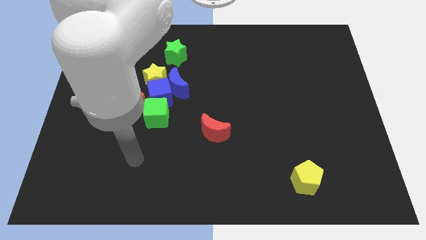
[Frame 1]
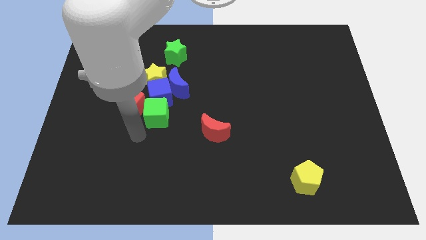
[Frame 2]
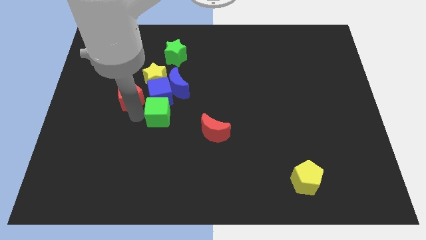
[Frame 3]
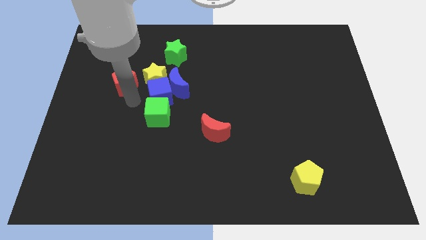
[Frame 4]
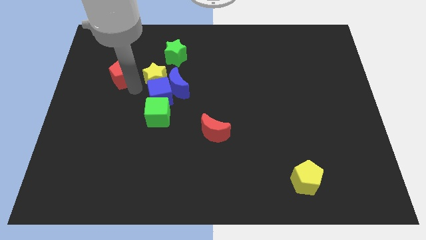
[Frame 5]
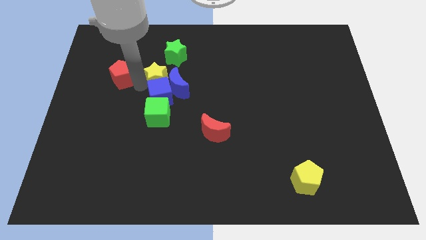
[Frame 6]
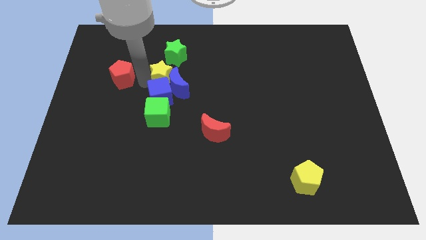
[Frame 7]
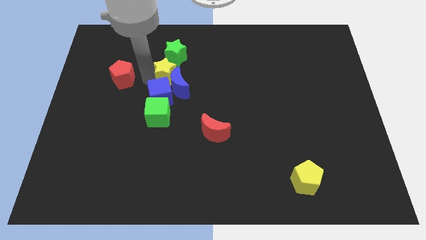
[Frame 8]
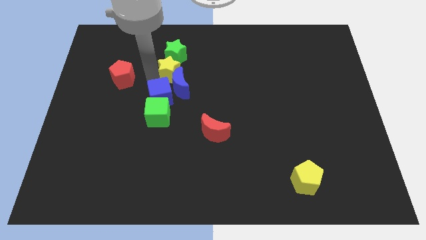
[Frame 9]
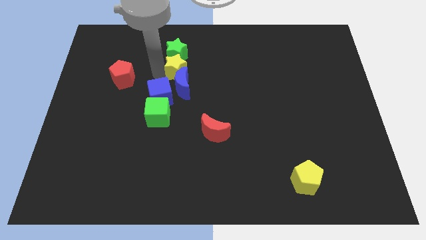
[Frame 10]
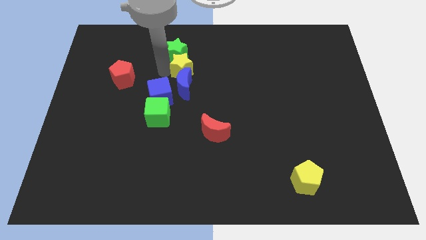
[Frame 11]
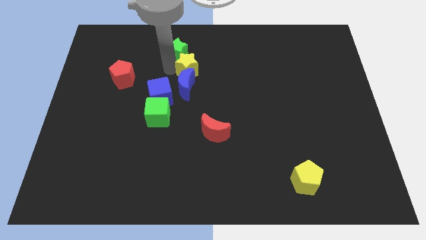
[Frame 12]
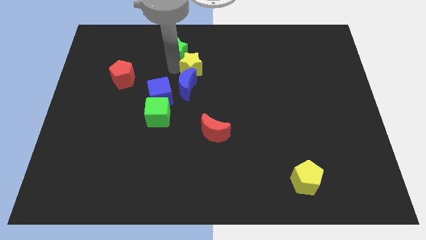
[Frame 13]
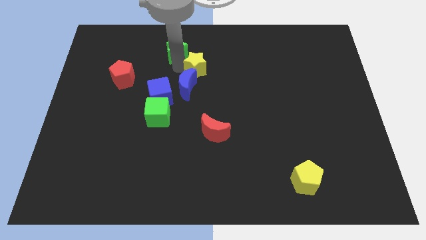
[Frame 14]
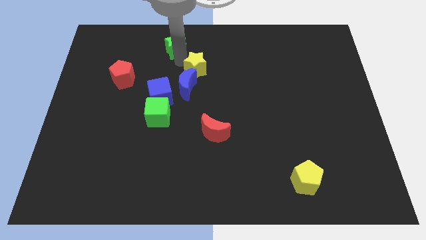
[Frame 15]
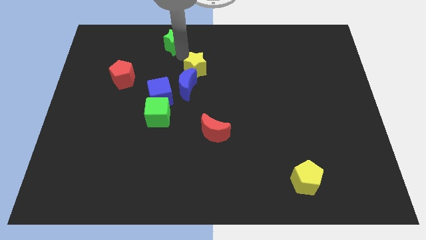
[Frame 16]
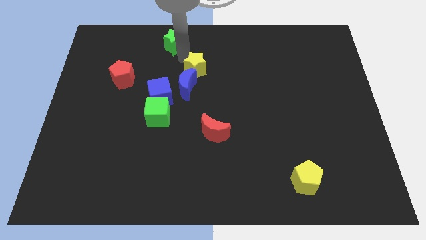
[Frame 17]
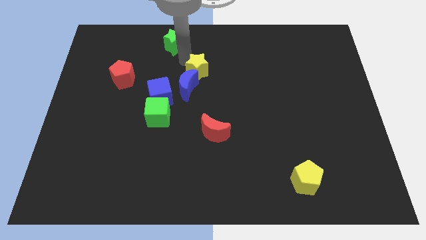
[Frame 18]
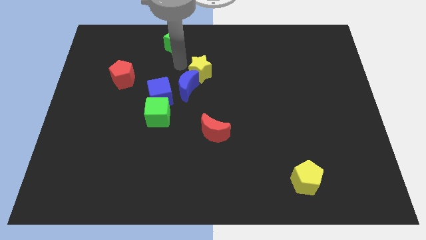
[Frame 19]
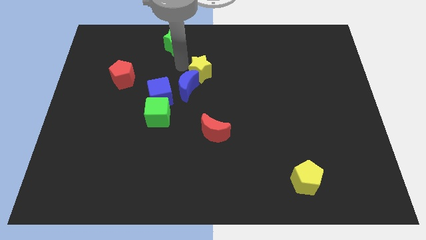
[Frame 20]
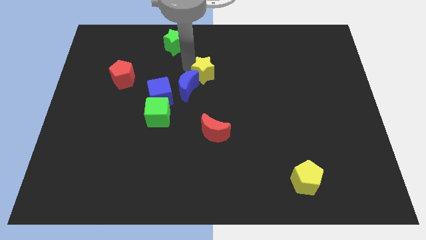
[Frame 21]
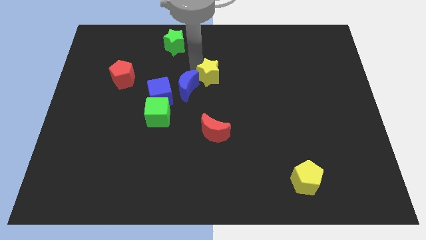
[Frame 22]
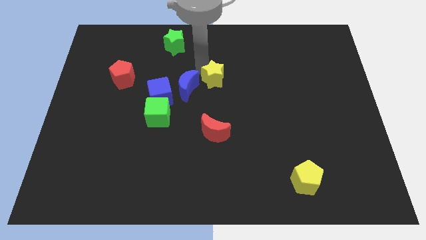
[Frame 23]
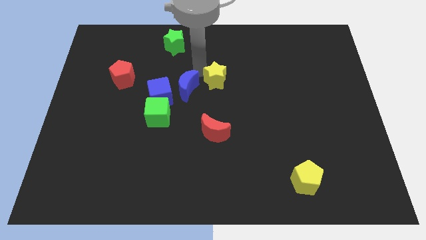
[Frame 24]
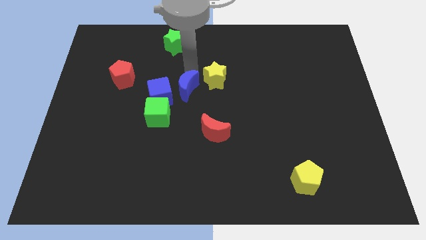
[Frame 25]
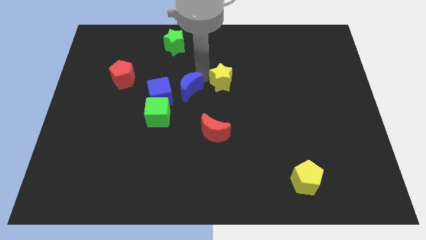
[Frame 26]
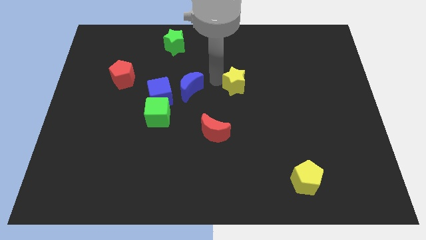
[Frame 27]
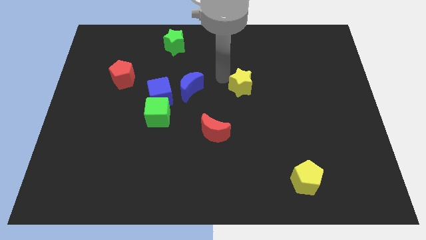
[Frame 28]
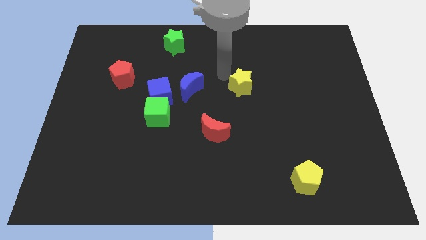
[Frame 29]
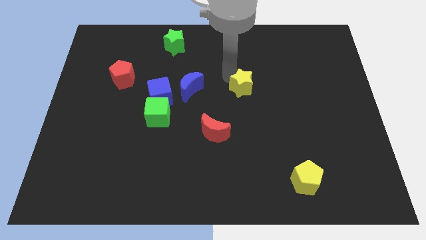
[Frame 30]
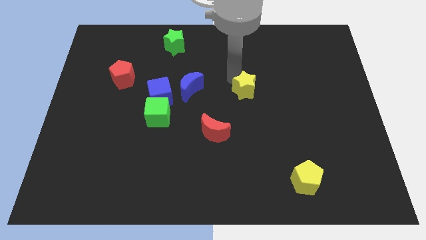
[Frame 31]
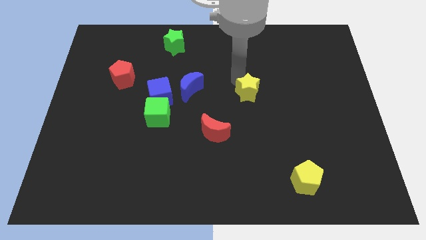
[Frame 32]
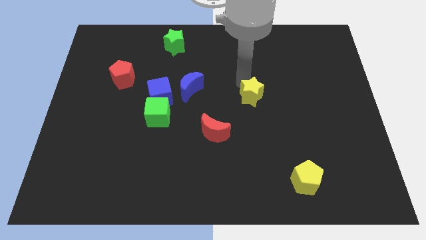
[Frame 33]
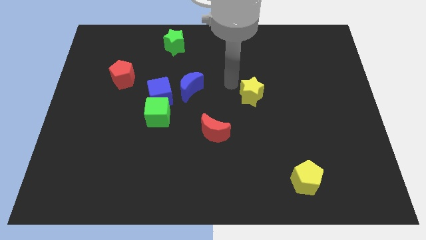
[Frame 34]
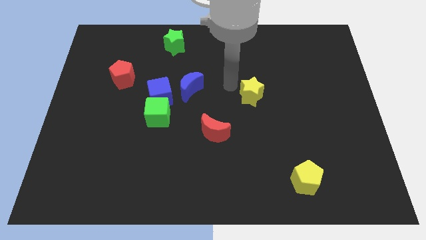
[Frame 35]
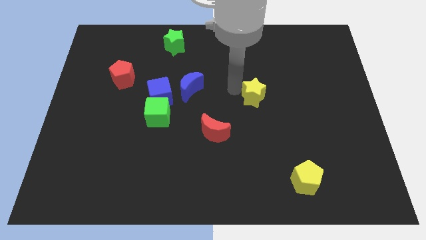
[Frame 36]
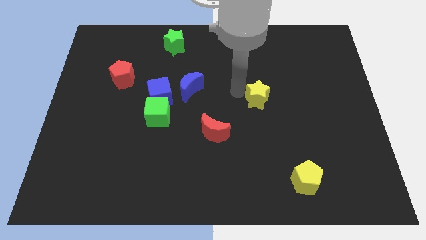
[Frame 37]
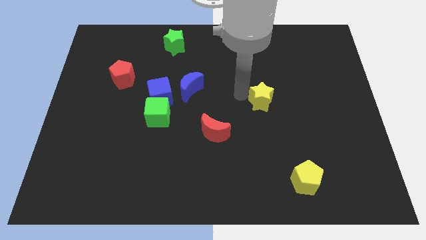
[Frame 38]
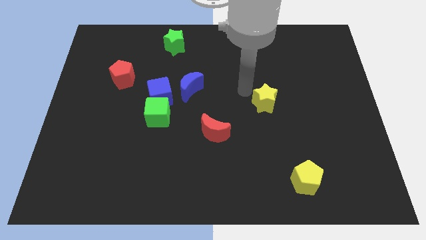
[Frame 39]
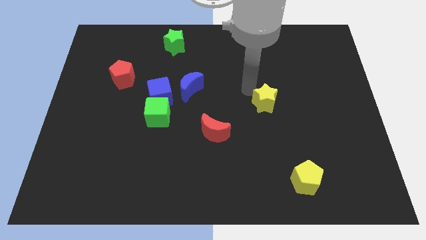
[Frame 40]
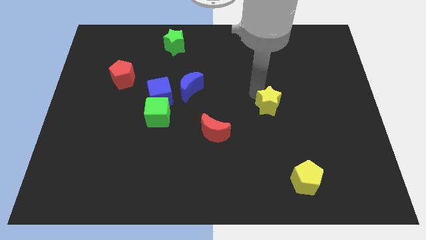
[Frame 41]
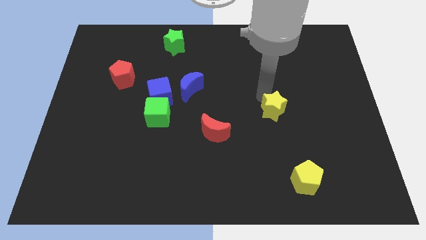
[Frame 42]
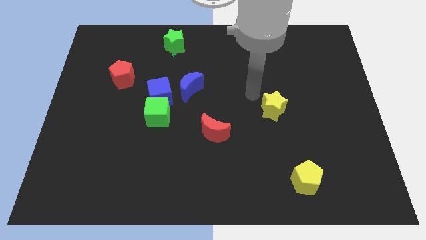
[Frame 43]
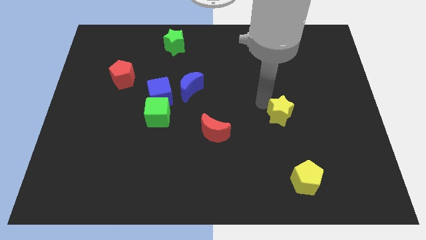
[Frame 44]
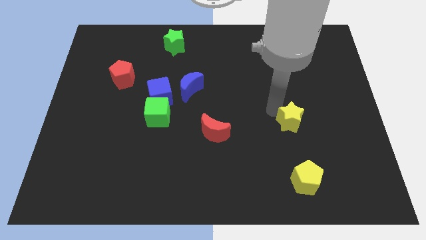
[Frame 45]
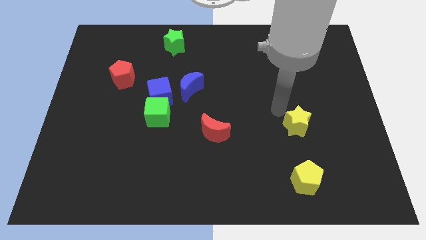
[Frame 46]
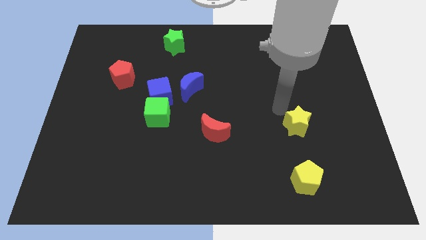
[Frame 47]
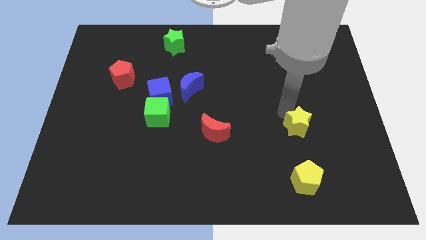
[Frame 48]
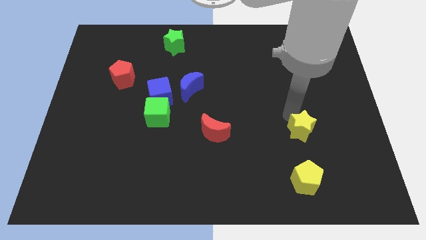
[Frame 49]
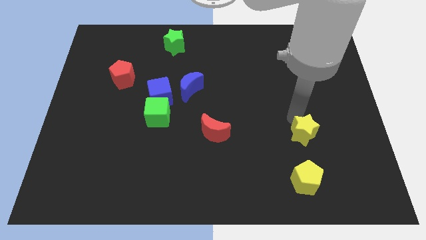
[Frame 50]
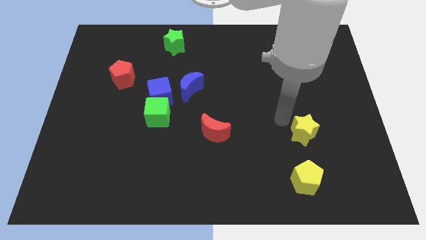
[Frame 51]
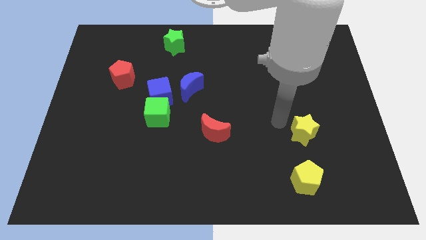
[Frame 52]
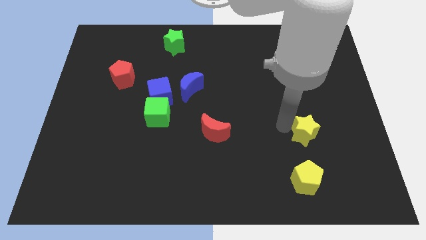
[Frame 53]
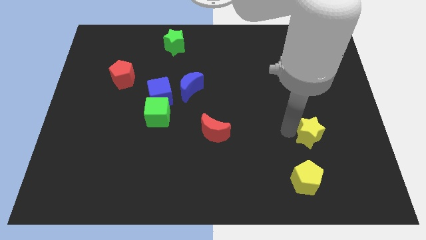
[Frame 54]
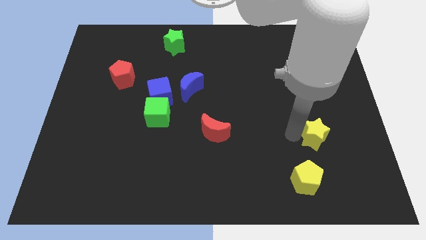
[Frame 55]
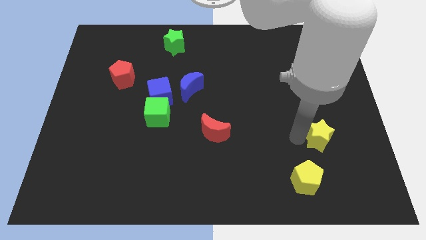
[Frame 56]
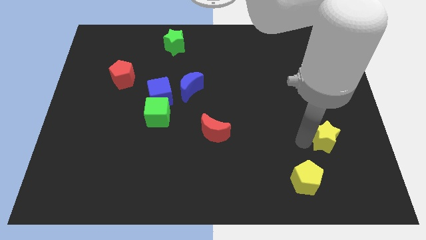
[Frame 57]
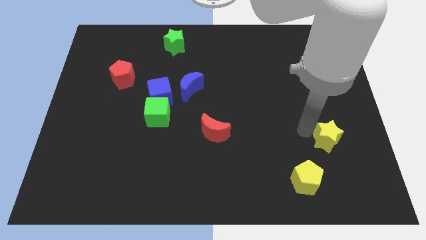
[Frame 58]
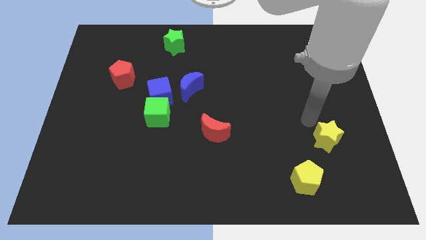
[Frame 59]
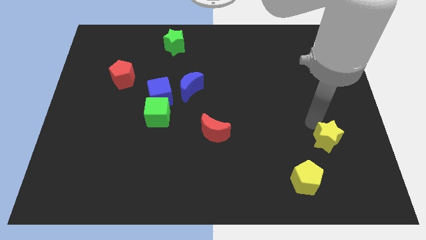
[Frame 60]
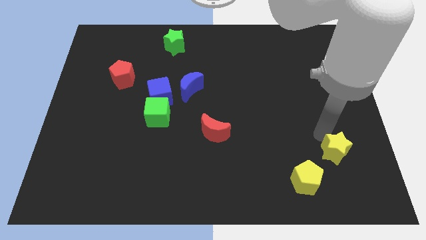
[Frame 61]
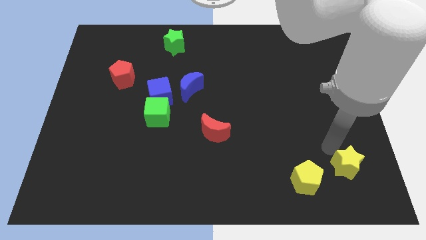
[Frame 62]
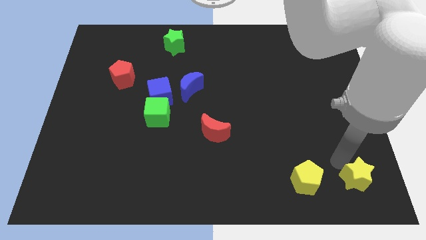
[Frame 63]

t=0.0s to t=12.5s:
move the yellow star to the bottom right of the board

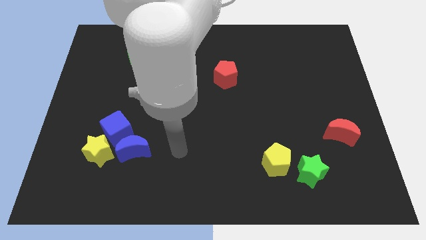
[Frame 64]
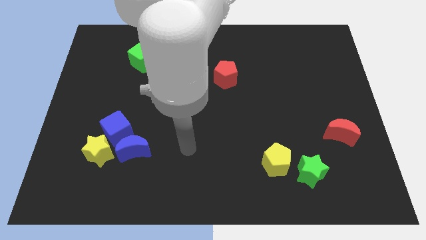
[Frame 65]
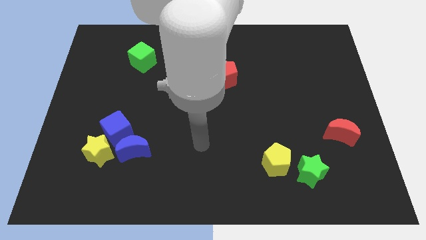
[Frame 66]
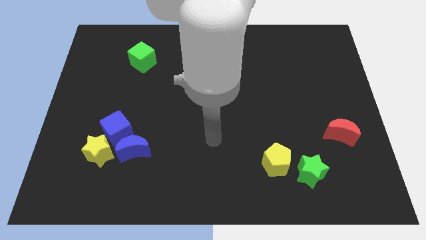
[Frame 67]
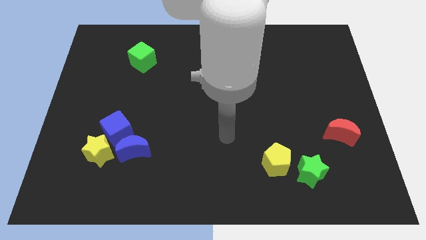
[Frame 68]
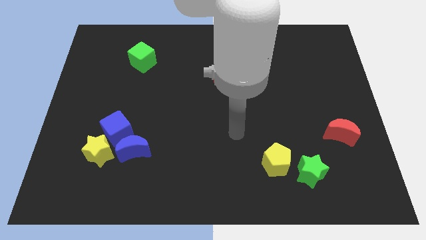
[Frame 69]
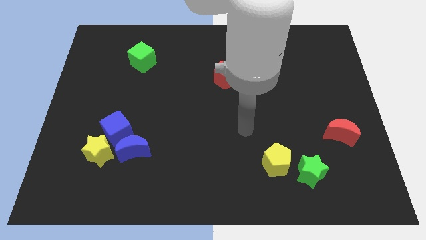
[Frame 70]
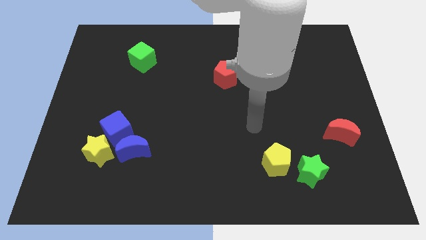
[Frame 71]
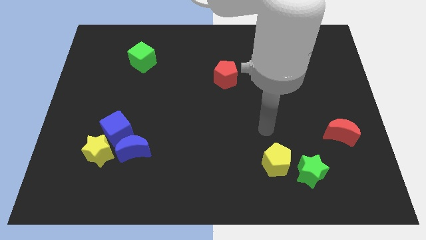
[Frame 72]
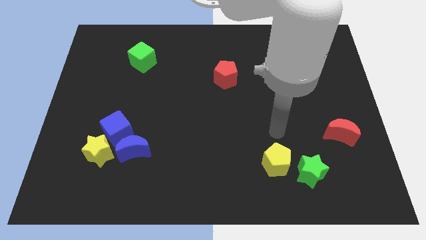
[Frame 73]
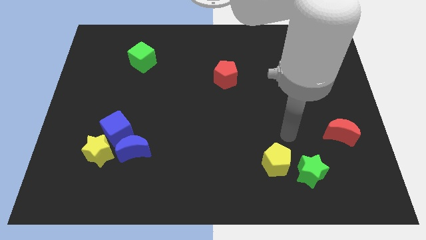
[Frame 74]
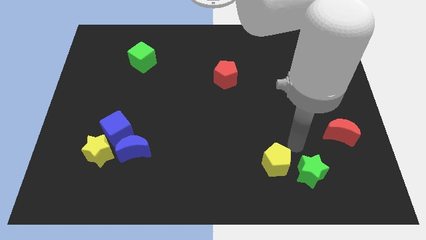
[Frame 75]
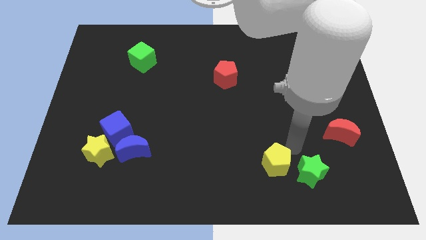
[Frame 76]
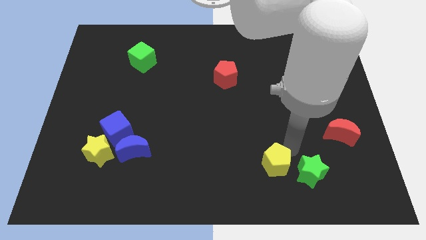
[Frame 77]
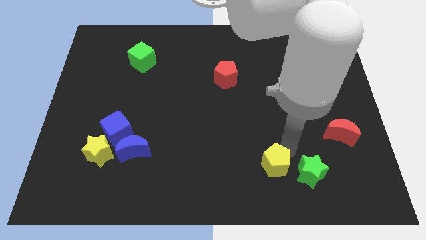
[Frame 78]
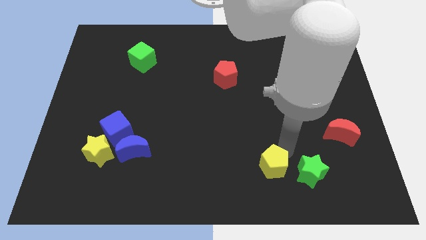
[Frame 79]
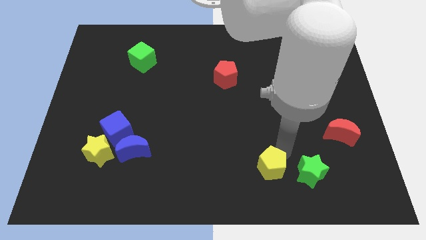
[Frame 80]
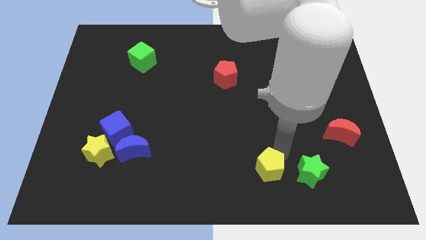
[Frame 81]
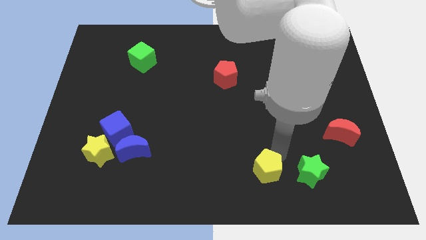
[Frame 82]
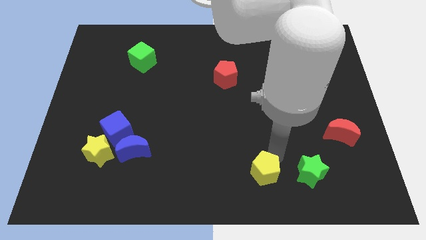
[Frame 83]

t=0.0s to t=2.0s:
put the yellow pentagon to the bottom side
